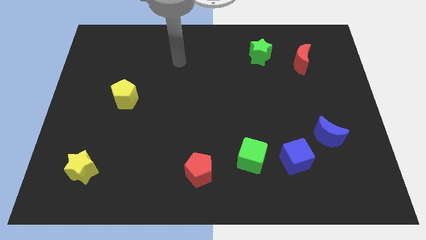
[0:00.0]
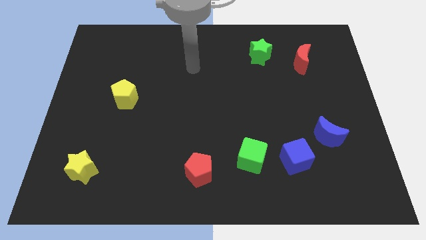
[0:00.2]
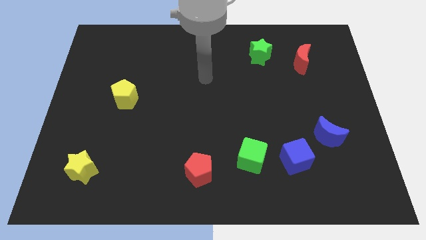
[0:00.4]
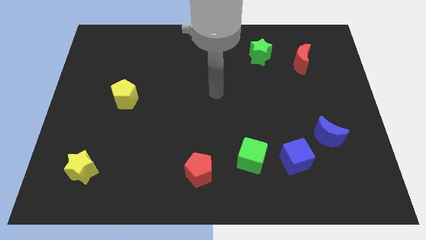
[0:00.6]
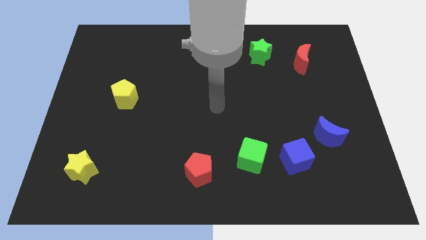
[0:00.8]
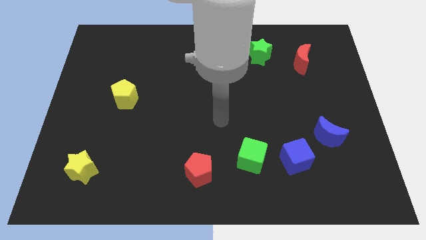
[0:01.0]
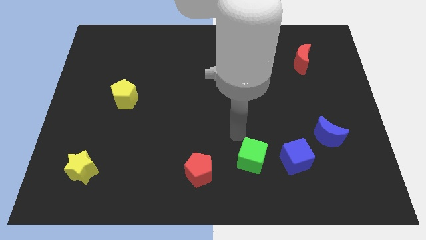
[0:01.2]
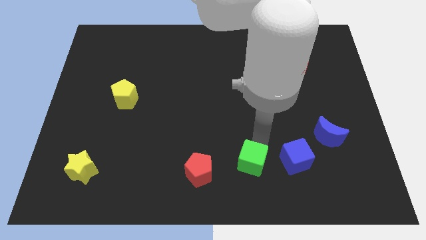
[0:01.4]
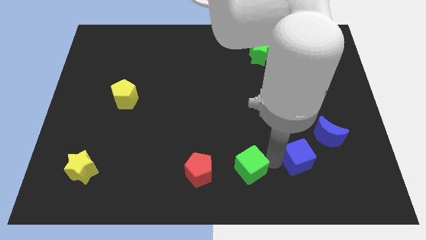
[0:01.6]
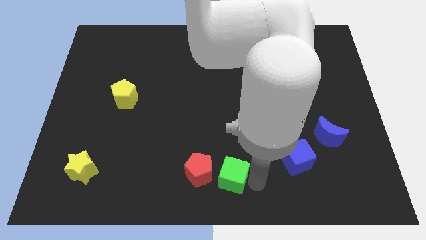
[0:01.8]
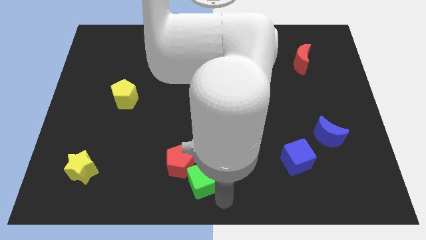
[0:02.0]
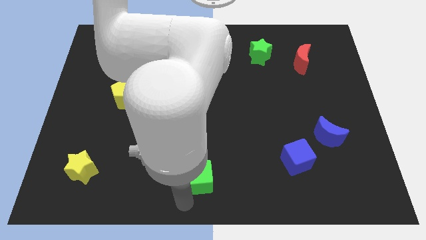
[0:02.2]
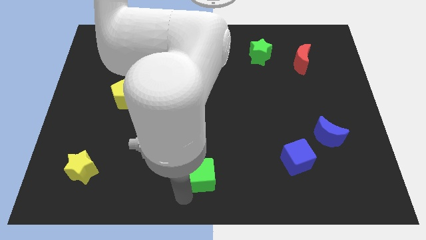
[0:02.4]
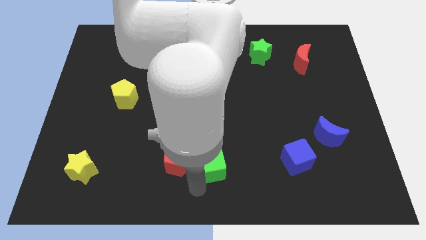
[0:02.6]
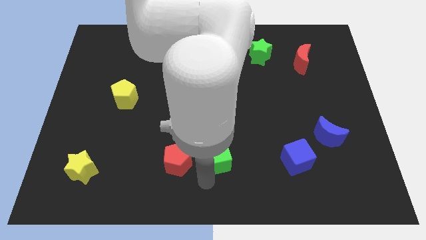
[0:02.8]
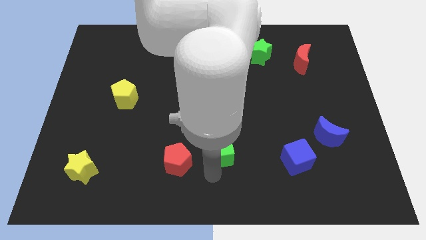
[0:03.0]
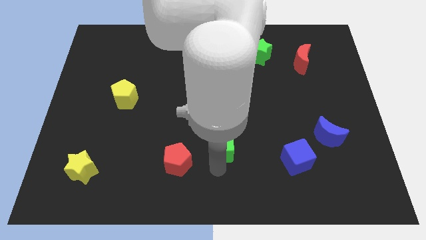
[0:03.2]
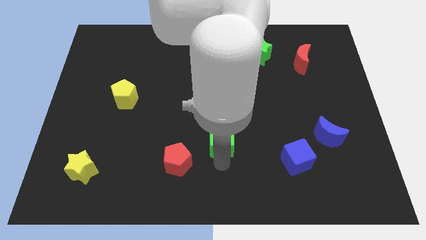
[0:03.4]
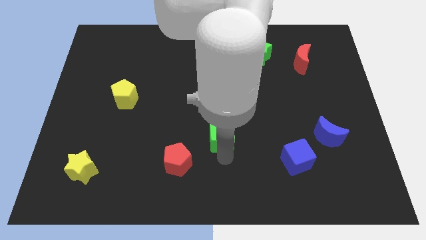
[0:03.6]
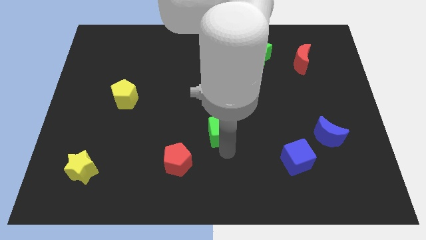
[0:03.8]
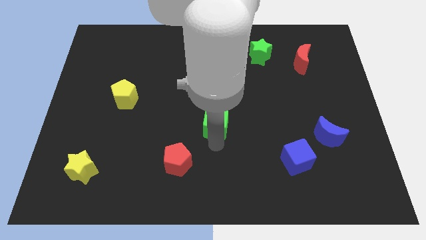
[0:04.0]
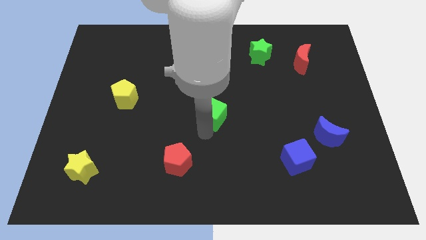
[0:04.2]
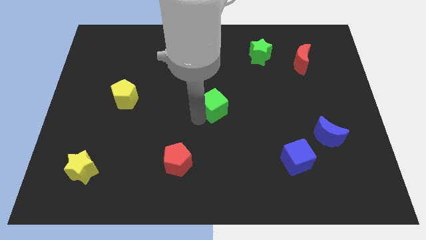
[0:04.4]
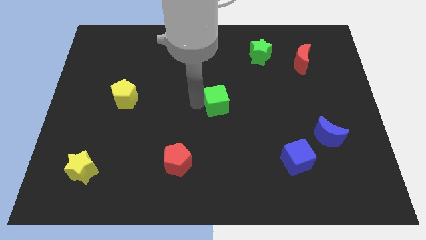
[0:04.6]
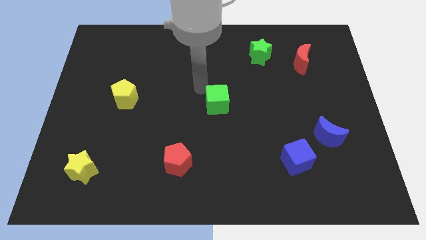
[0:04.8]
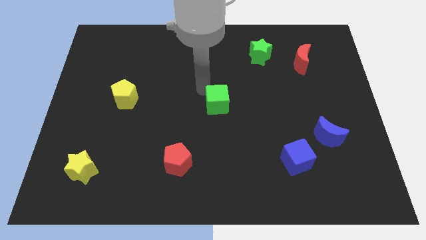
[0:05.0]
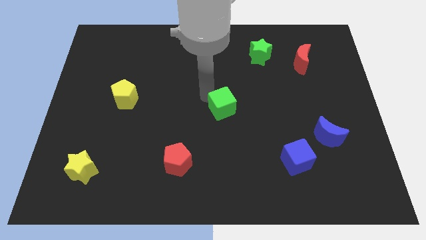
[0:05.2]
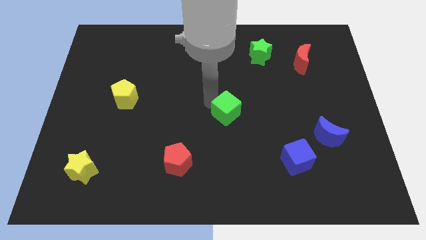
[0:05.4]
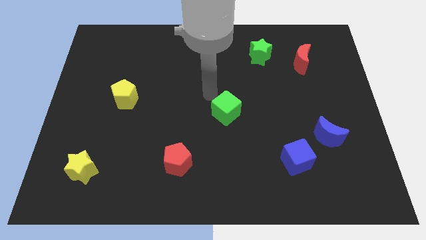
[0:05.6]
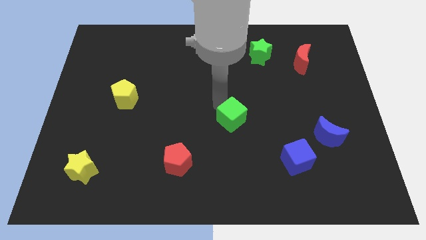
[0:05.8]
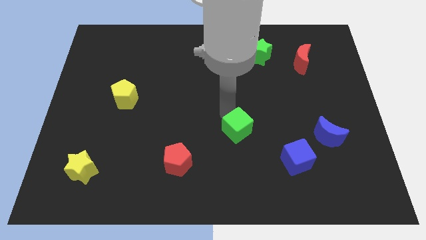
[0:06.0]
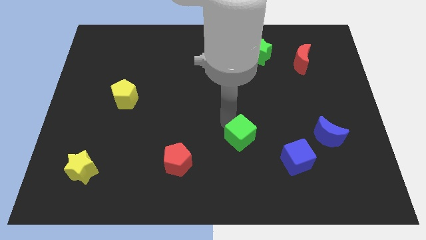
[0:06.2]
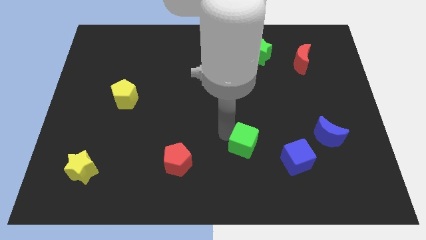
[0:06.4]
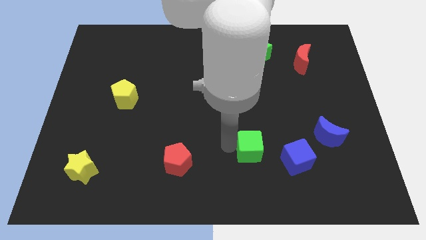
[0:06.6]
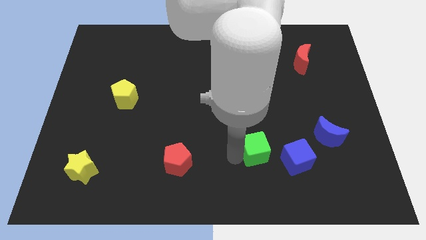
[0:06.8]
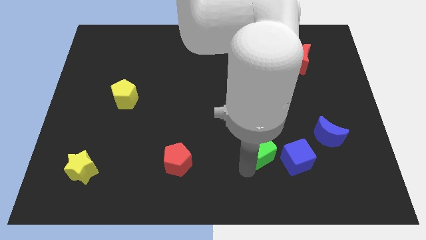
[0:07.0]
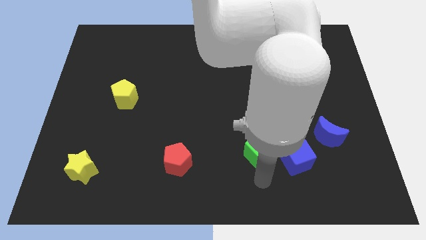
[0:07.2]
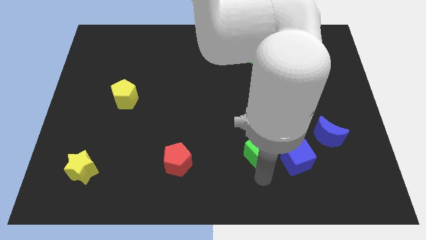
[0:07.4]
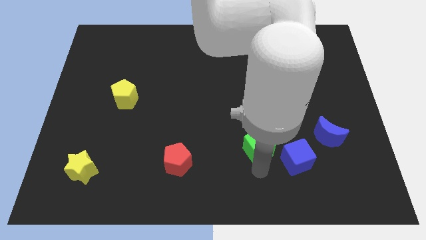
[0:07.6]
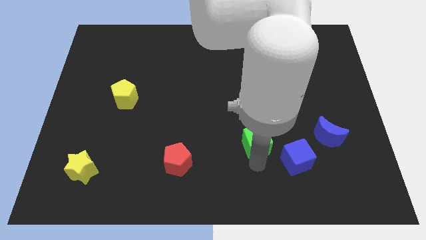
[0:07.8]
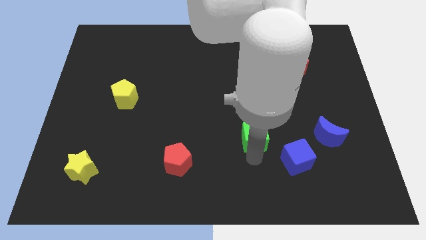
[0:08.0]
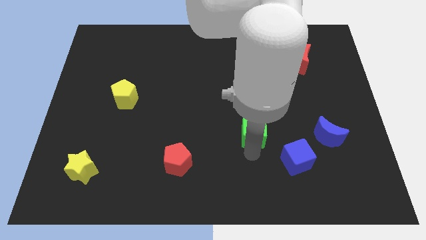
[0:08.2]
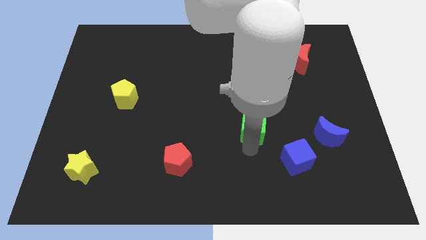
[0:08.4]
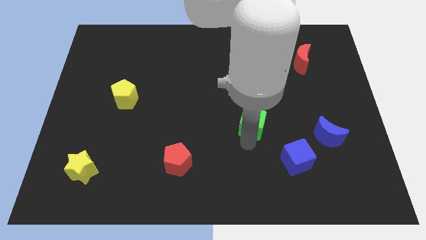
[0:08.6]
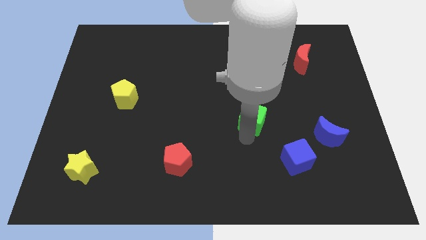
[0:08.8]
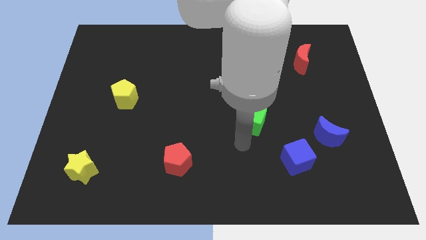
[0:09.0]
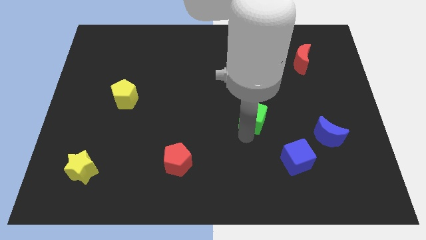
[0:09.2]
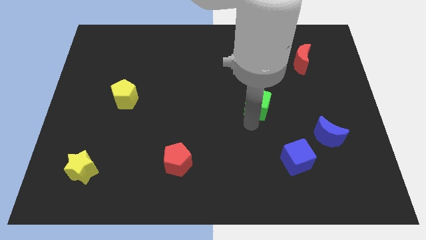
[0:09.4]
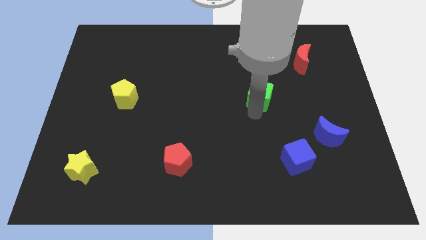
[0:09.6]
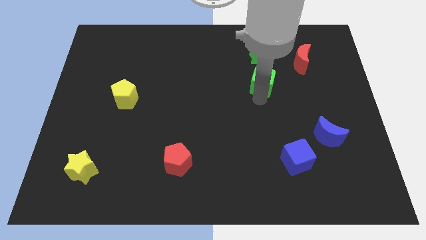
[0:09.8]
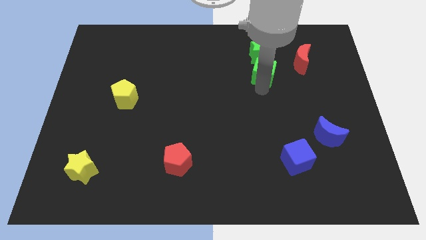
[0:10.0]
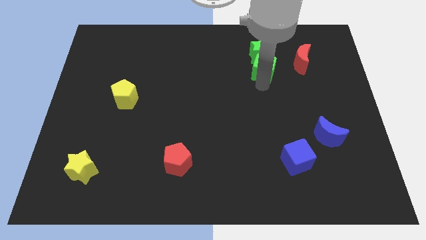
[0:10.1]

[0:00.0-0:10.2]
push the green cube towards the green star

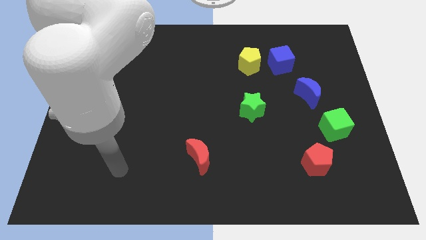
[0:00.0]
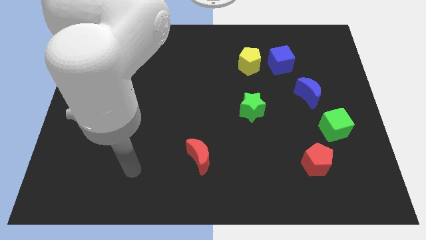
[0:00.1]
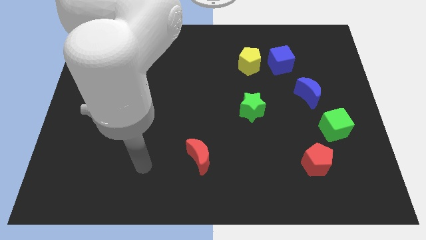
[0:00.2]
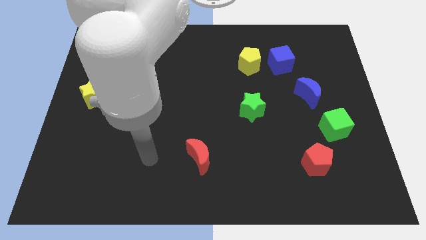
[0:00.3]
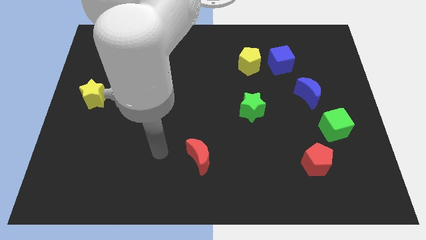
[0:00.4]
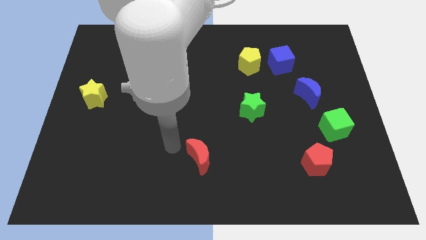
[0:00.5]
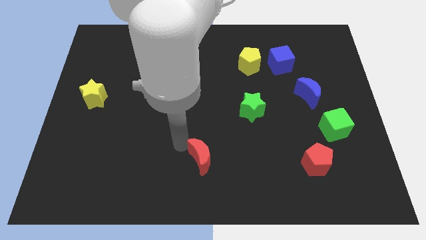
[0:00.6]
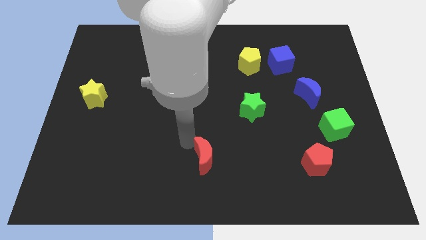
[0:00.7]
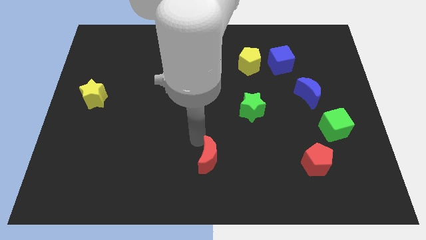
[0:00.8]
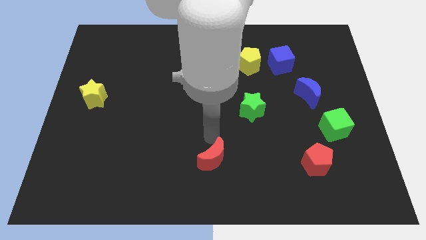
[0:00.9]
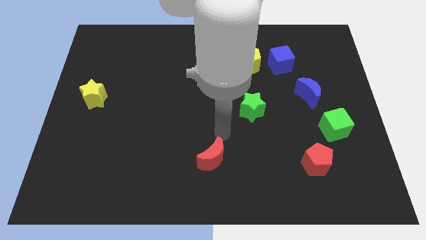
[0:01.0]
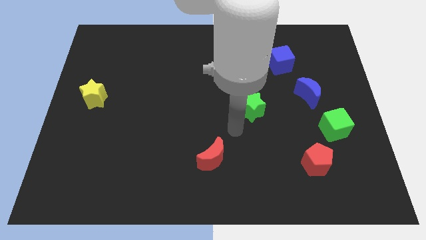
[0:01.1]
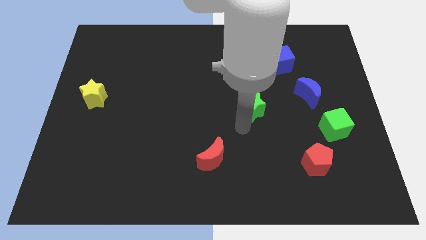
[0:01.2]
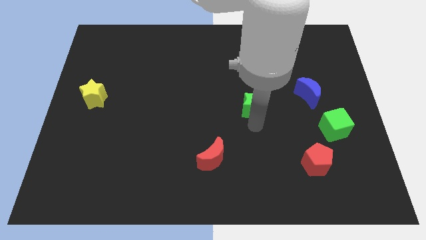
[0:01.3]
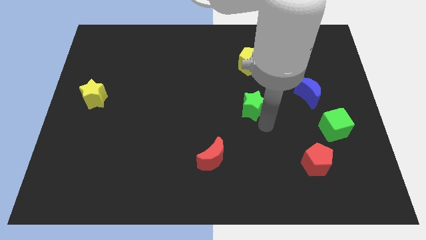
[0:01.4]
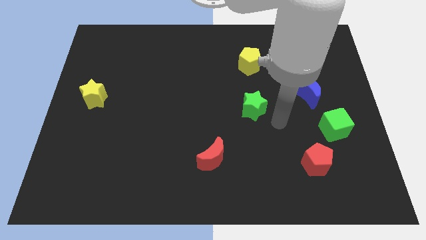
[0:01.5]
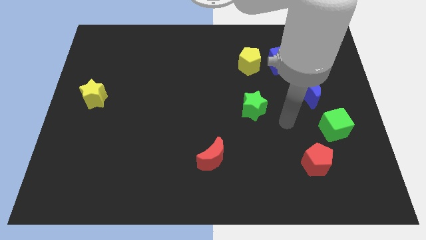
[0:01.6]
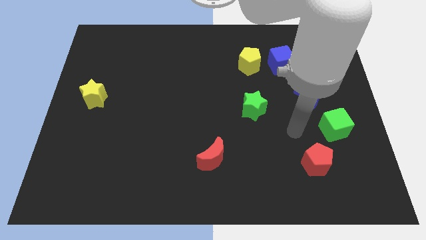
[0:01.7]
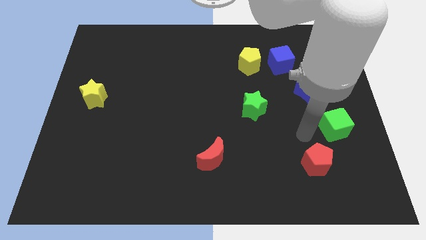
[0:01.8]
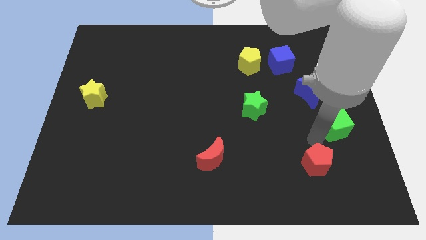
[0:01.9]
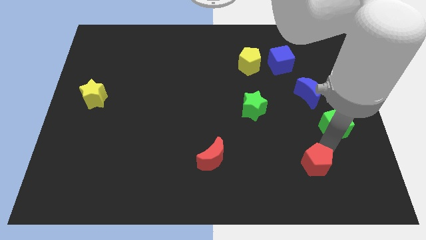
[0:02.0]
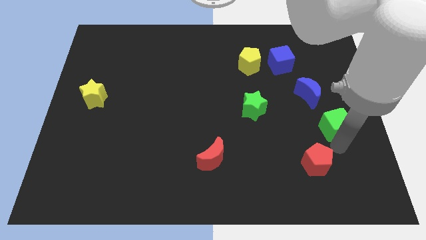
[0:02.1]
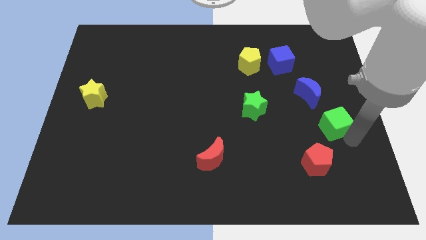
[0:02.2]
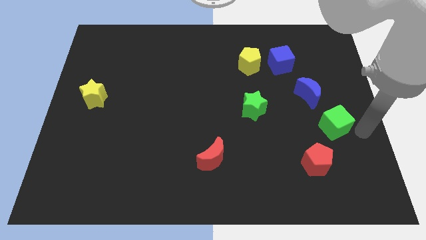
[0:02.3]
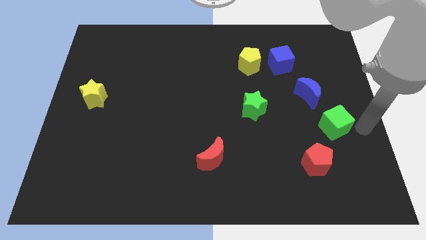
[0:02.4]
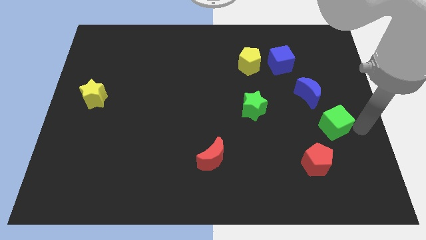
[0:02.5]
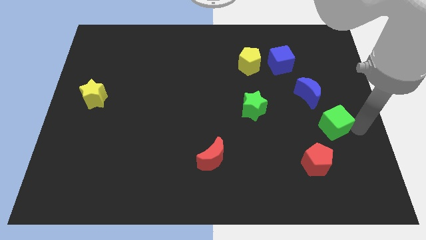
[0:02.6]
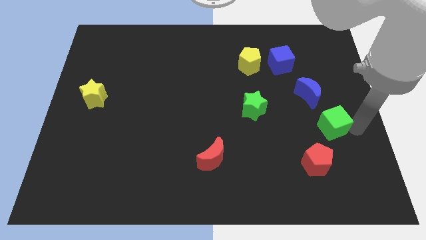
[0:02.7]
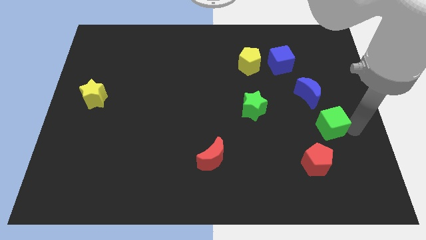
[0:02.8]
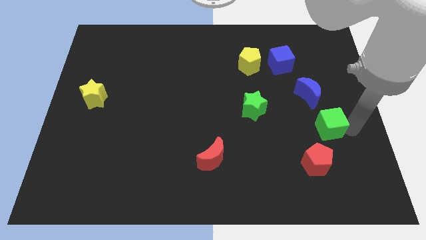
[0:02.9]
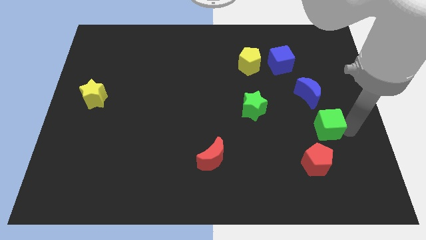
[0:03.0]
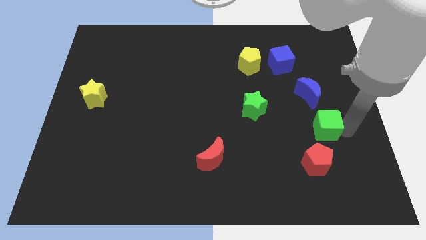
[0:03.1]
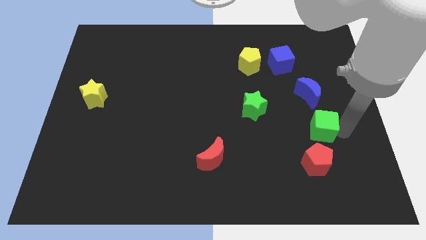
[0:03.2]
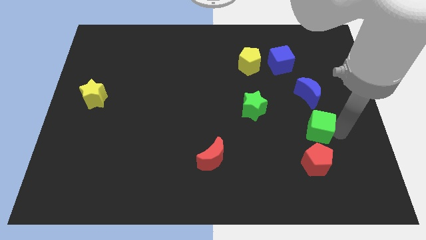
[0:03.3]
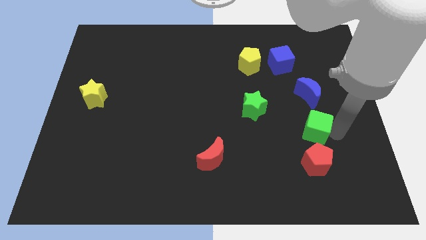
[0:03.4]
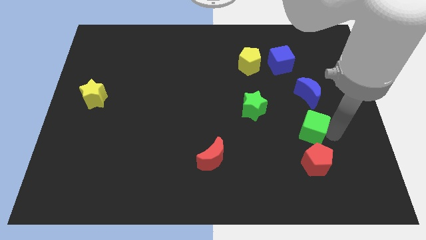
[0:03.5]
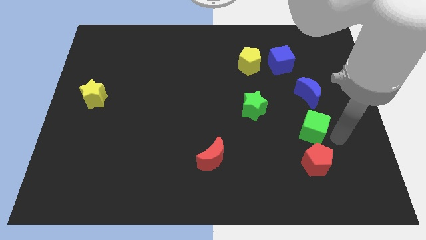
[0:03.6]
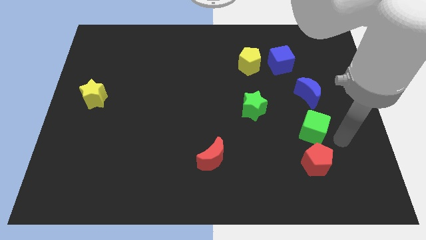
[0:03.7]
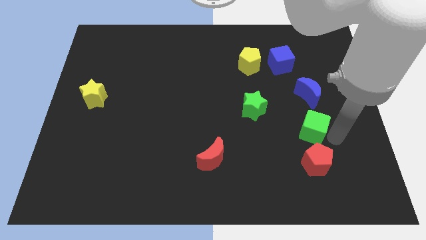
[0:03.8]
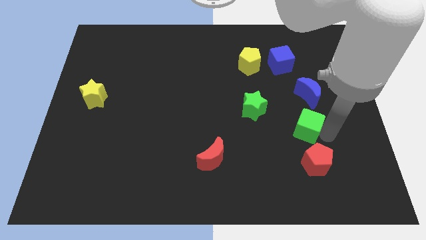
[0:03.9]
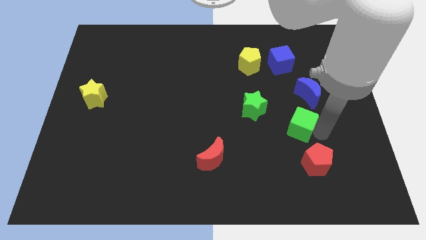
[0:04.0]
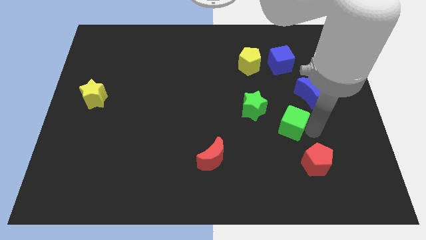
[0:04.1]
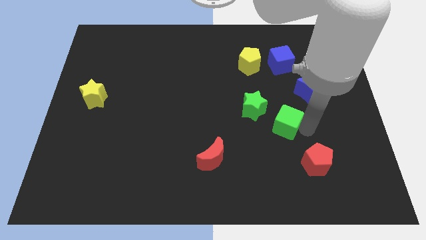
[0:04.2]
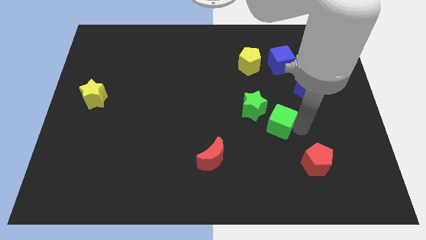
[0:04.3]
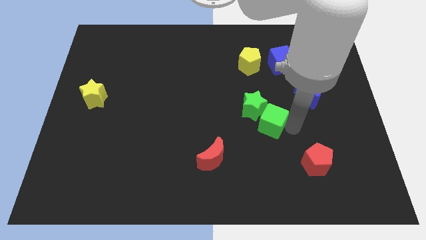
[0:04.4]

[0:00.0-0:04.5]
put the green cube to the green star
